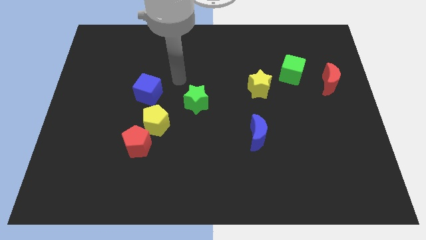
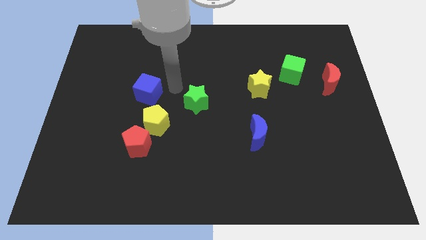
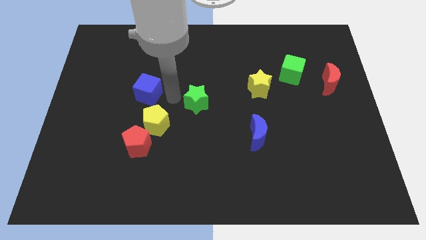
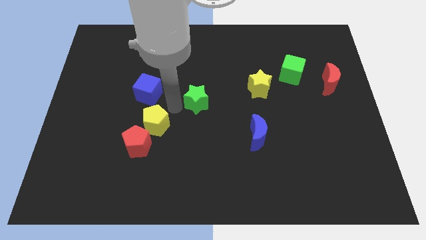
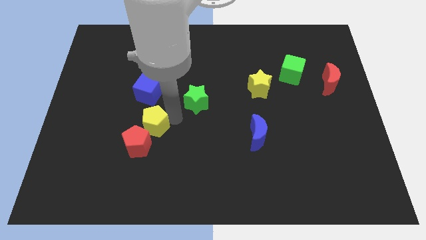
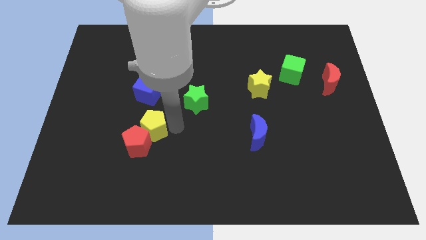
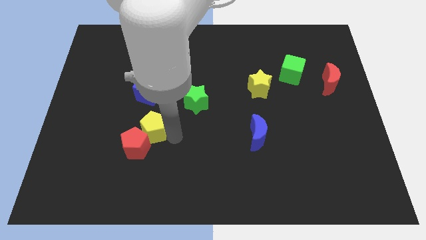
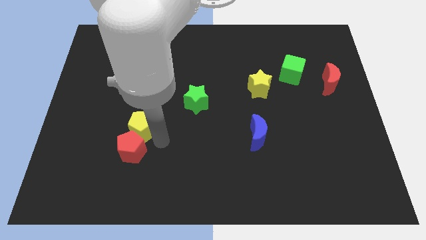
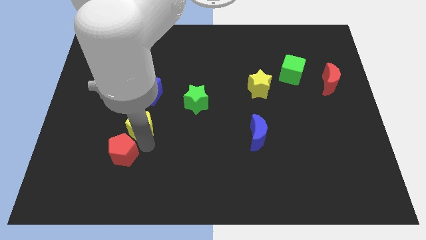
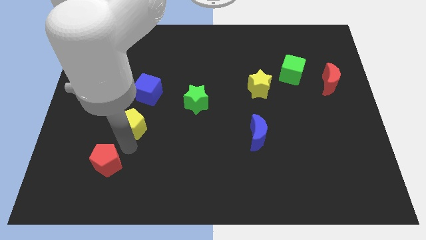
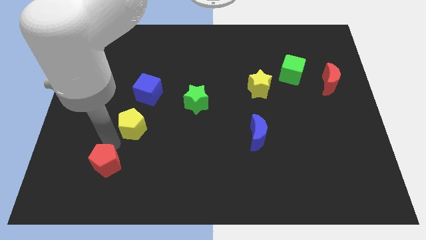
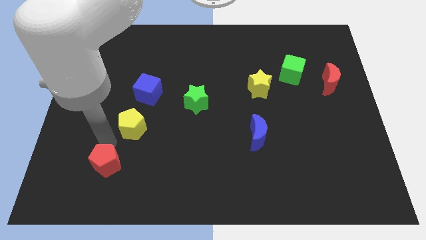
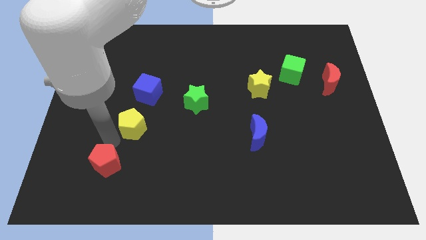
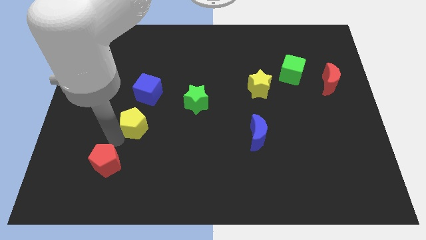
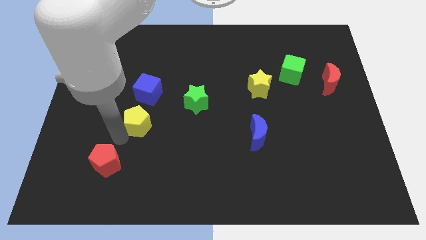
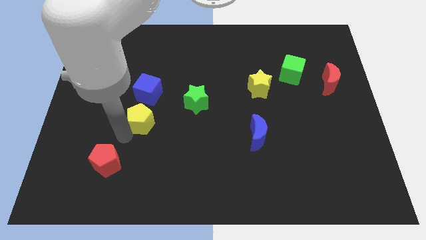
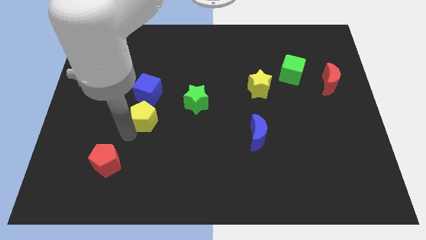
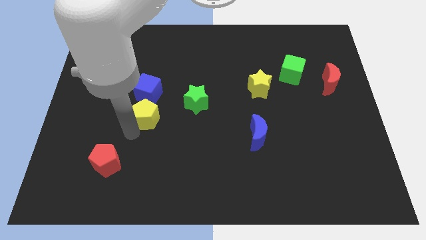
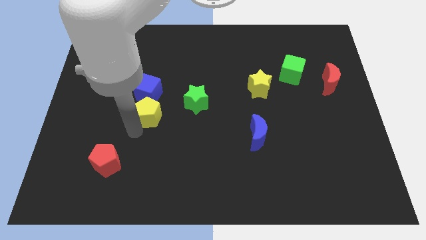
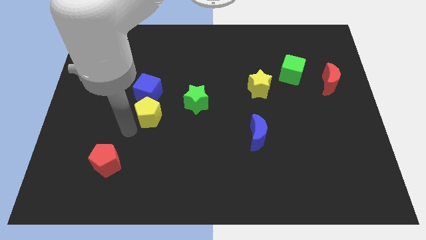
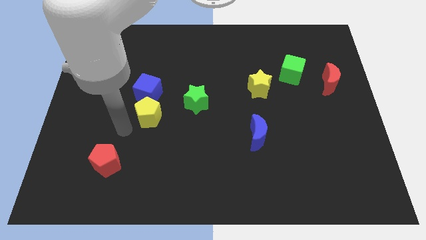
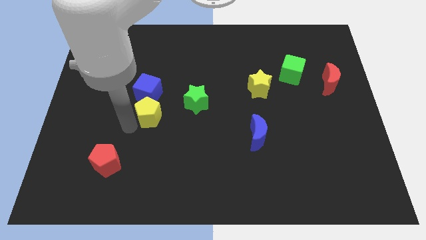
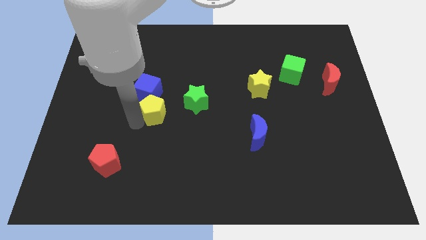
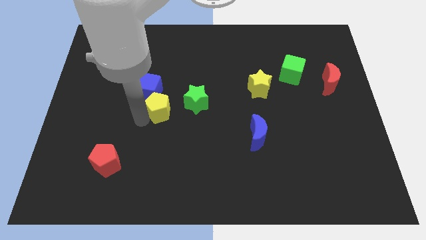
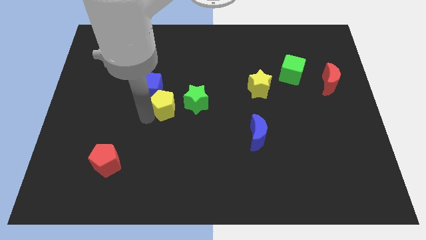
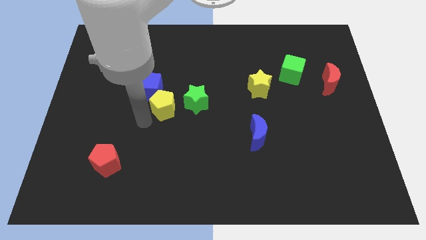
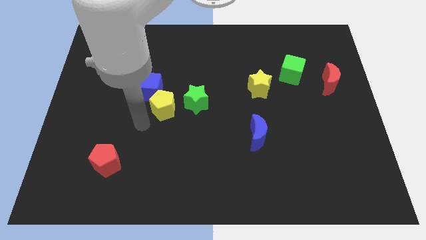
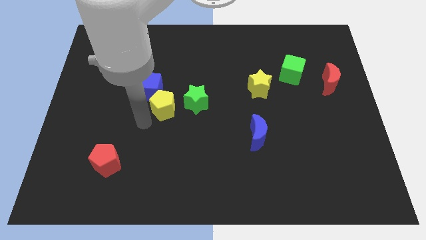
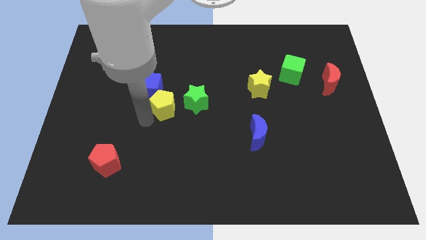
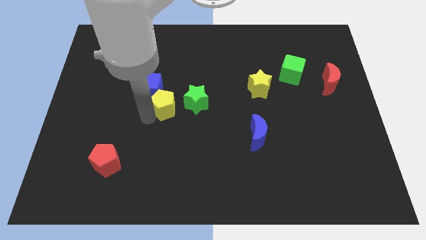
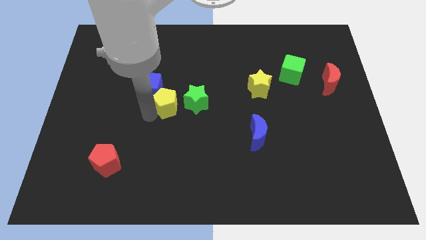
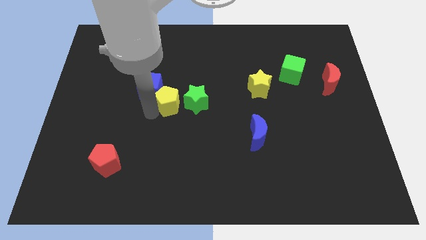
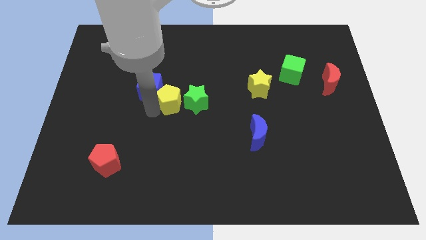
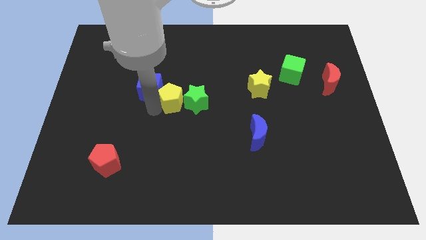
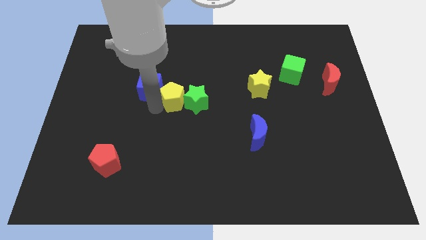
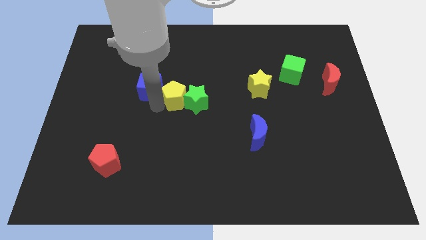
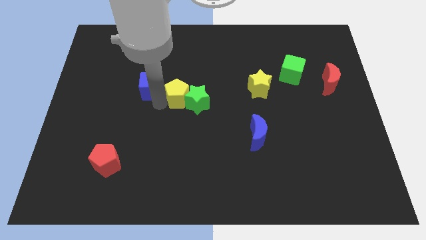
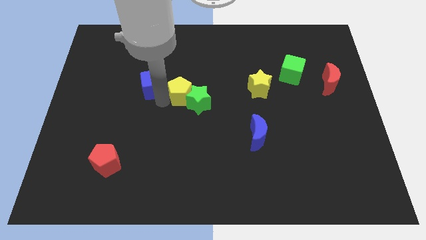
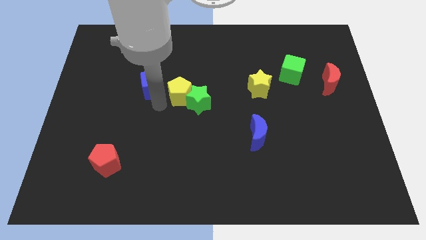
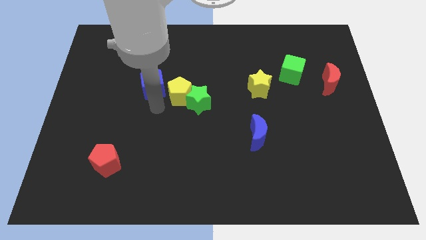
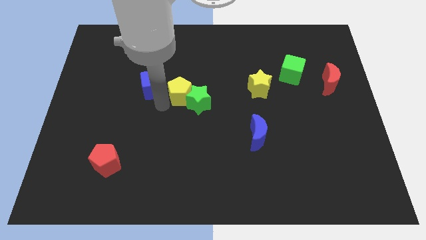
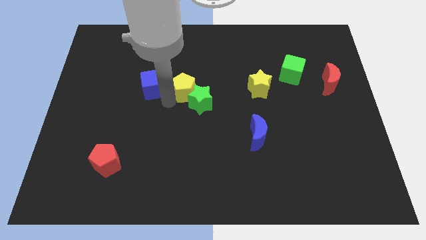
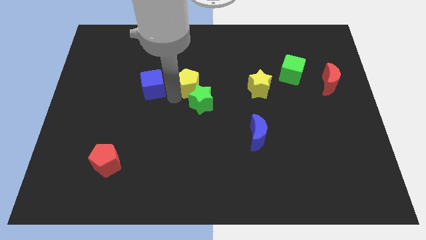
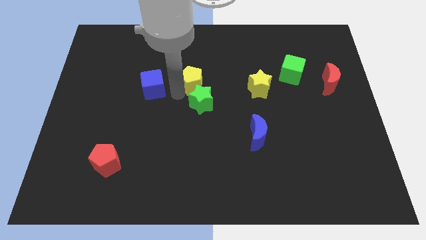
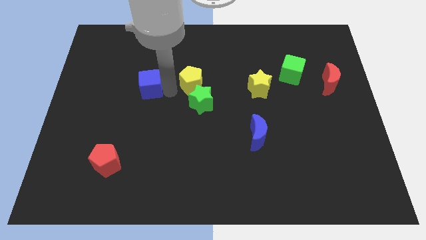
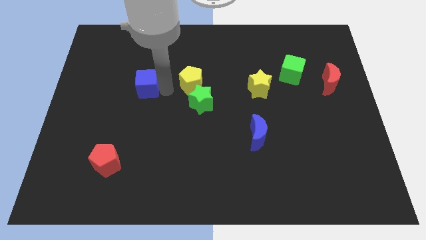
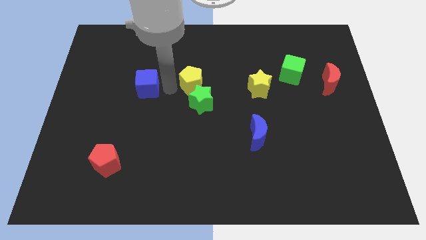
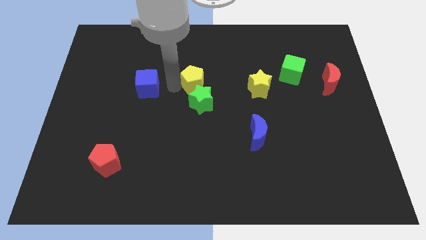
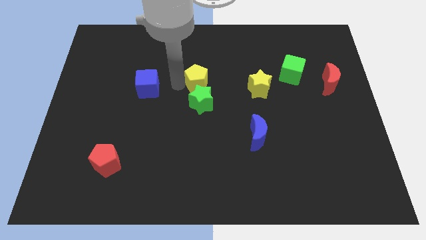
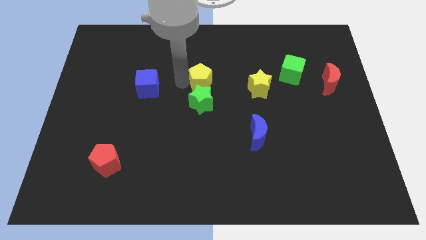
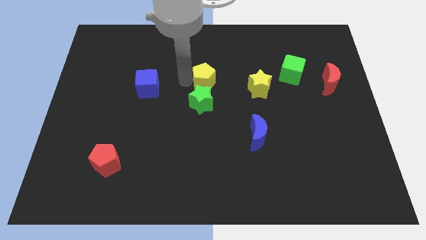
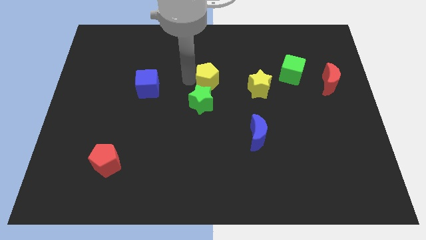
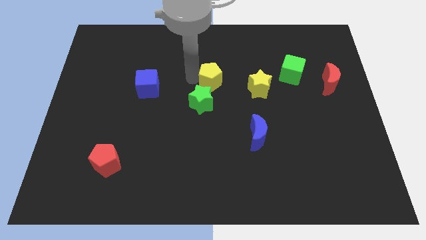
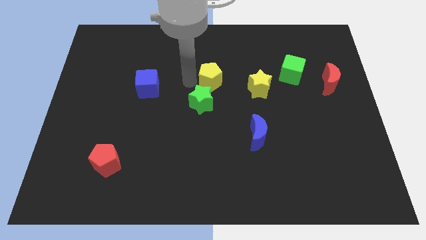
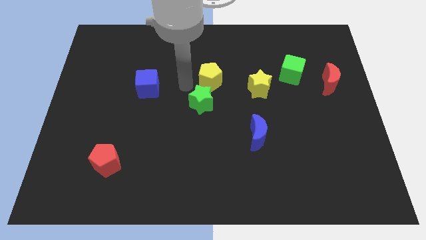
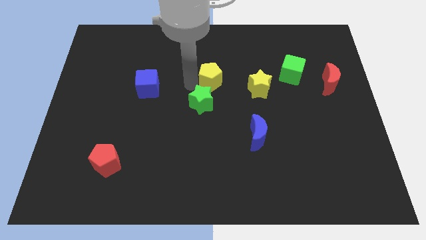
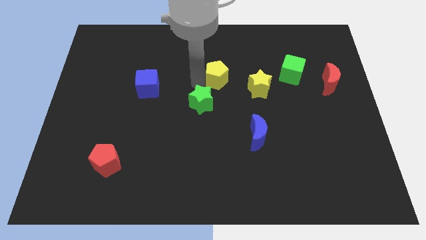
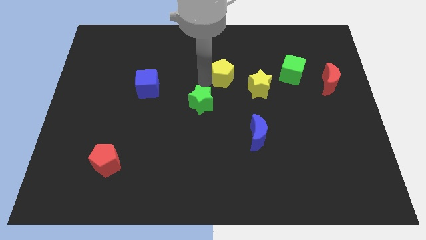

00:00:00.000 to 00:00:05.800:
put the yellow pentagon to the top left side of the yellow star
